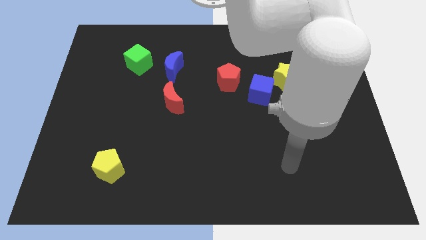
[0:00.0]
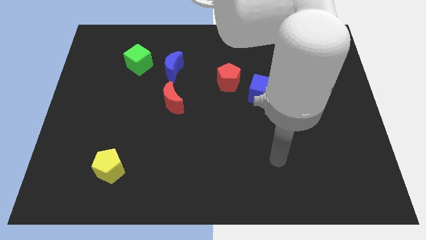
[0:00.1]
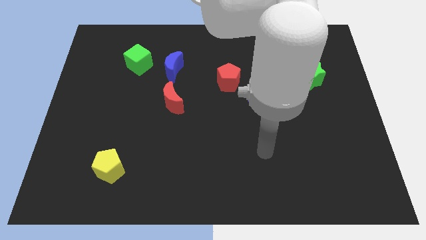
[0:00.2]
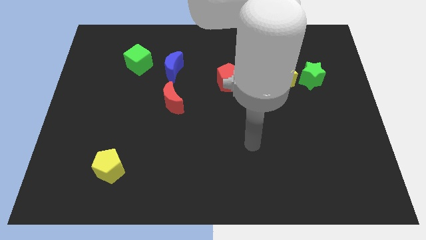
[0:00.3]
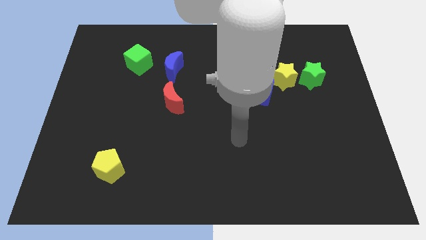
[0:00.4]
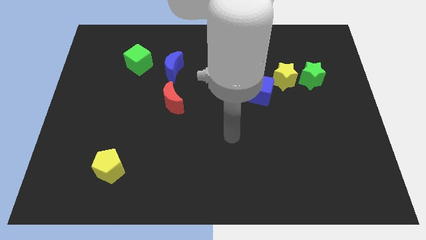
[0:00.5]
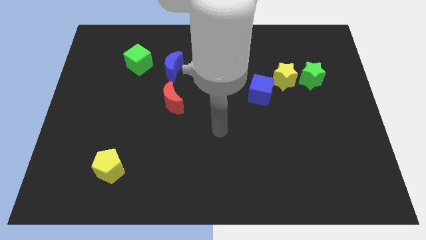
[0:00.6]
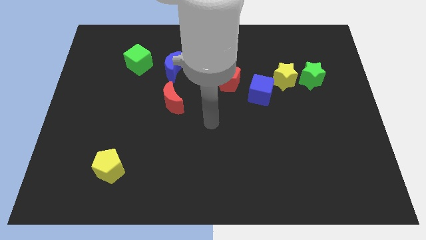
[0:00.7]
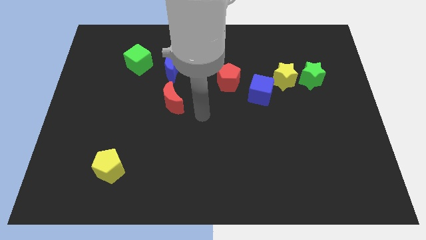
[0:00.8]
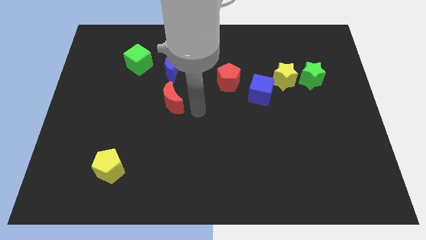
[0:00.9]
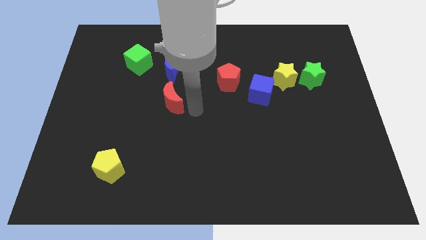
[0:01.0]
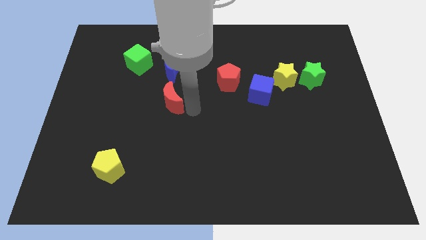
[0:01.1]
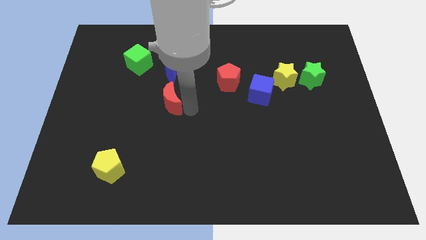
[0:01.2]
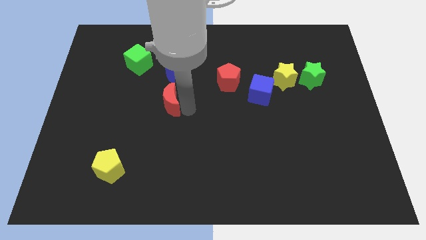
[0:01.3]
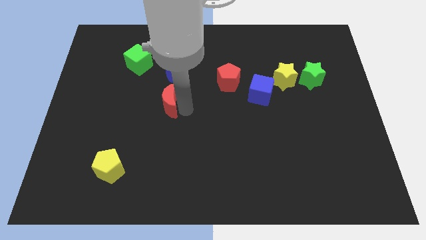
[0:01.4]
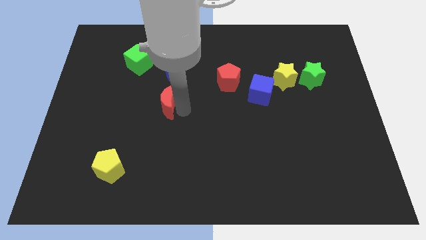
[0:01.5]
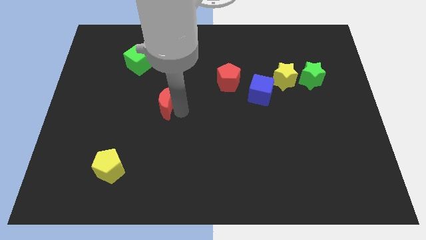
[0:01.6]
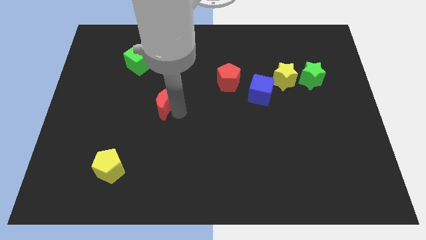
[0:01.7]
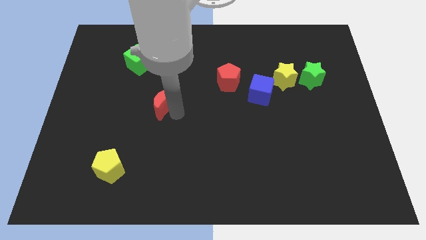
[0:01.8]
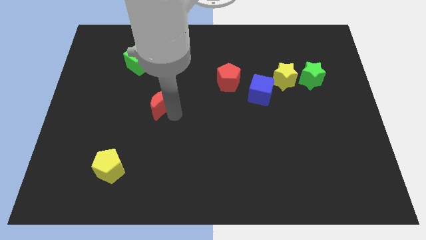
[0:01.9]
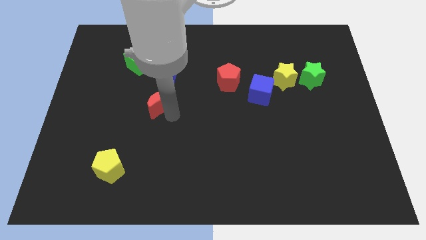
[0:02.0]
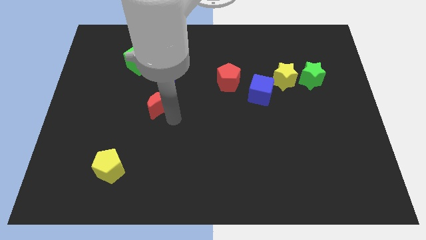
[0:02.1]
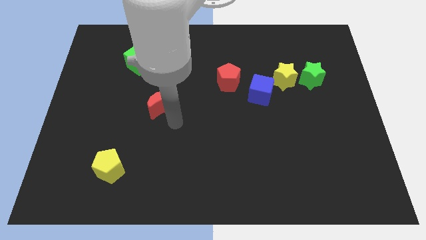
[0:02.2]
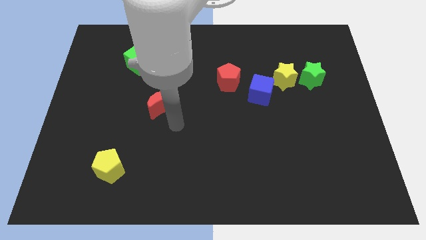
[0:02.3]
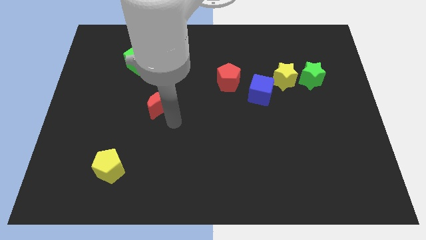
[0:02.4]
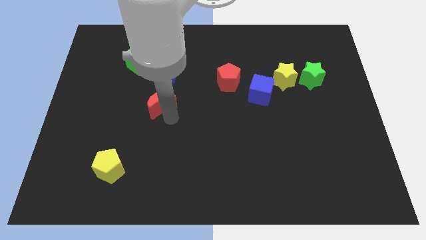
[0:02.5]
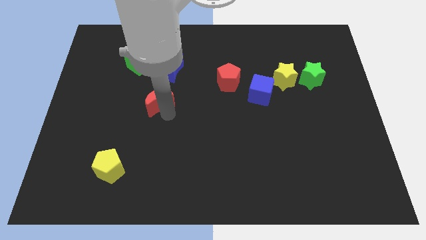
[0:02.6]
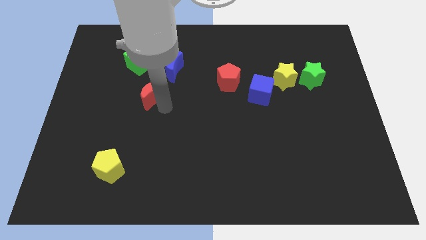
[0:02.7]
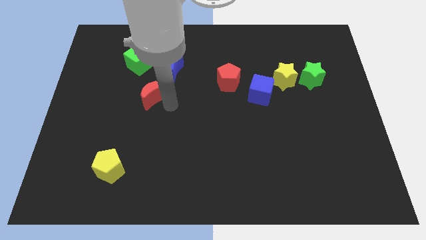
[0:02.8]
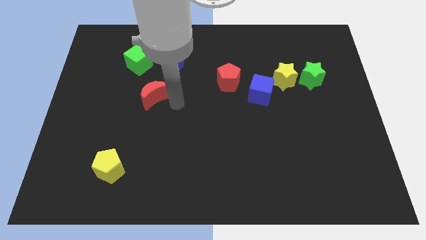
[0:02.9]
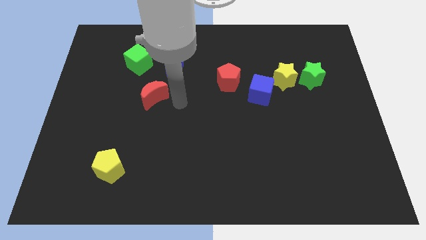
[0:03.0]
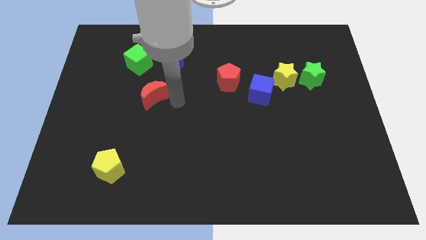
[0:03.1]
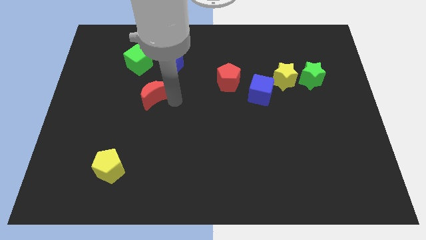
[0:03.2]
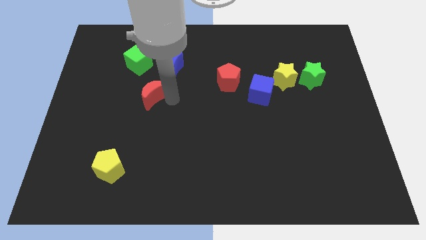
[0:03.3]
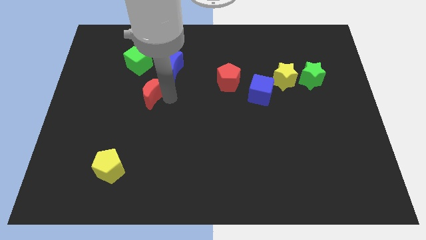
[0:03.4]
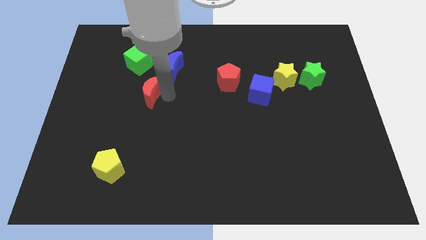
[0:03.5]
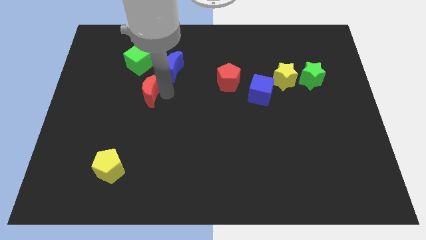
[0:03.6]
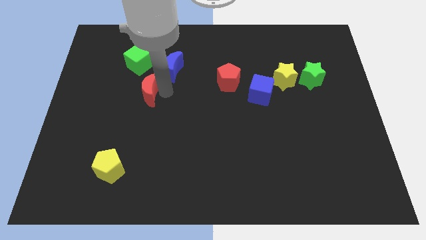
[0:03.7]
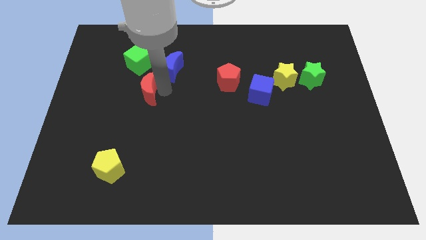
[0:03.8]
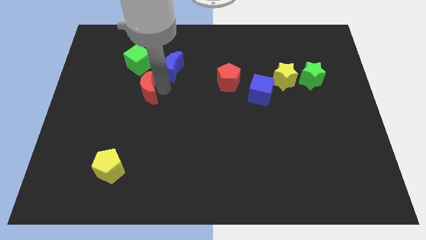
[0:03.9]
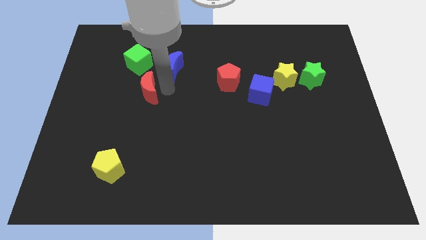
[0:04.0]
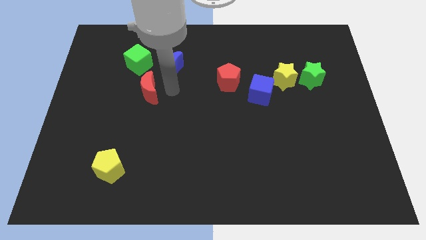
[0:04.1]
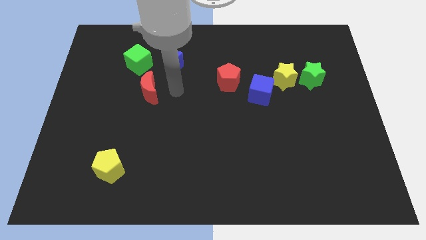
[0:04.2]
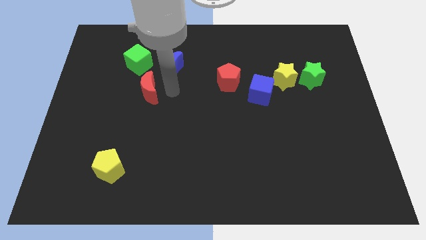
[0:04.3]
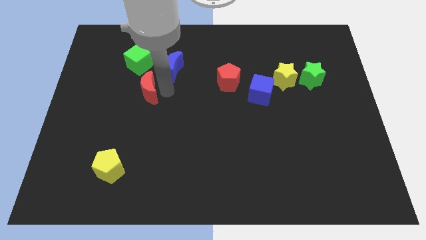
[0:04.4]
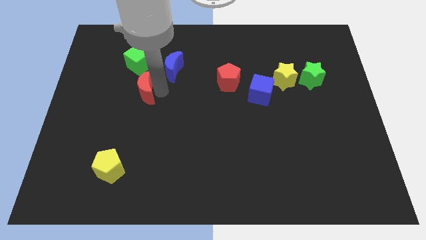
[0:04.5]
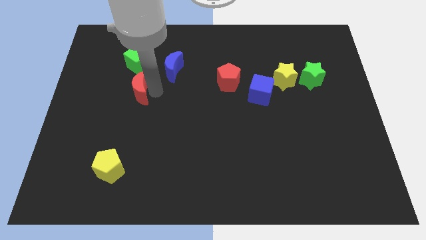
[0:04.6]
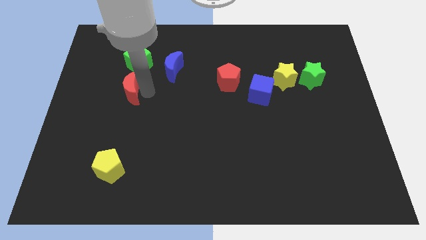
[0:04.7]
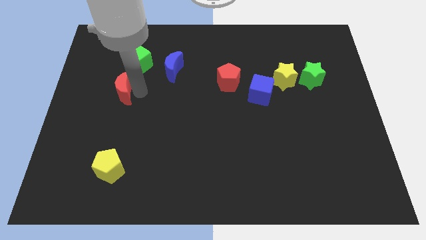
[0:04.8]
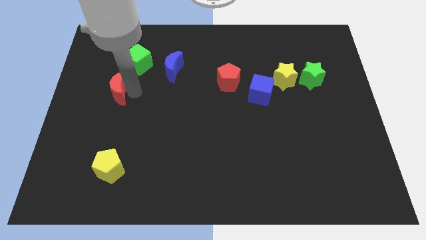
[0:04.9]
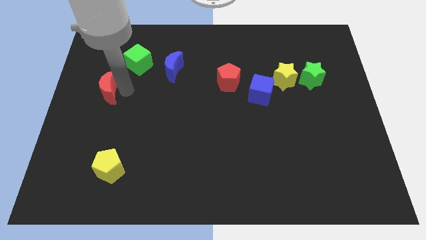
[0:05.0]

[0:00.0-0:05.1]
push the red moon to the center left
